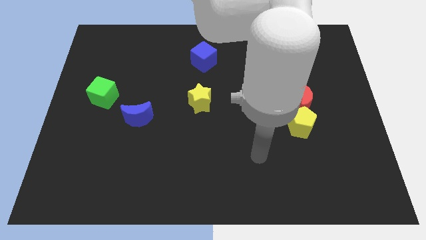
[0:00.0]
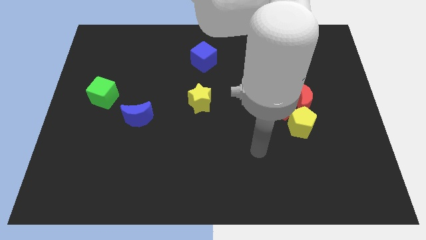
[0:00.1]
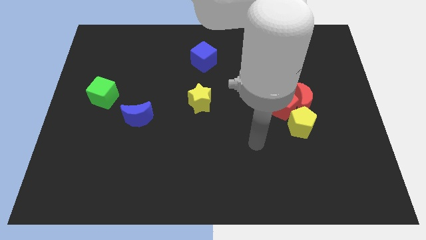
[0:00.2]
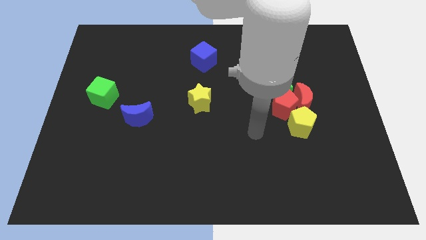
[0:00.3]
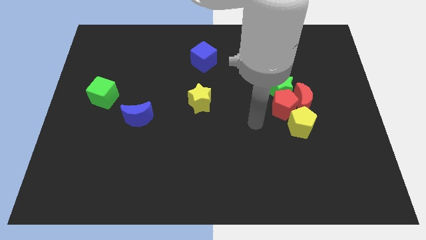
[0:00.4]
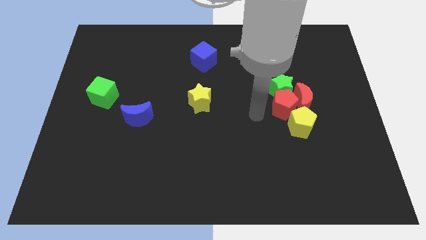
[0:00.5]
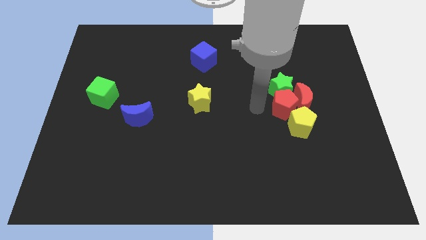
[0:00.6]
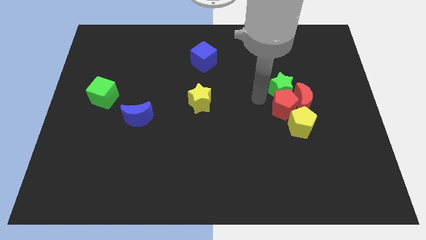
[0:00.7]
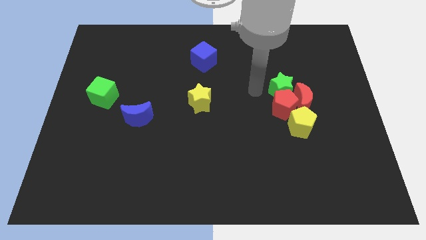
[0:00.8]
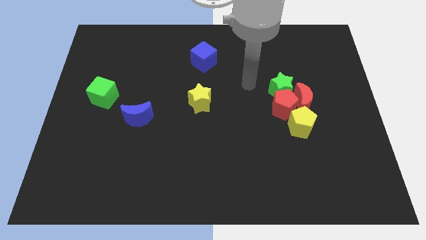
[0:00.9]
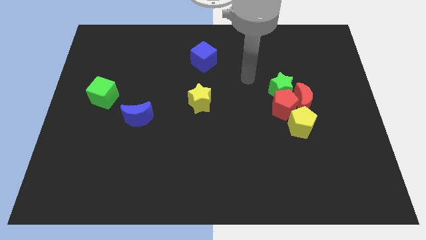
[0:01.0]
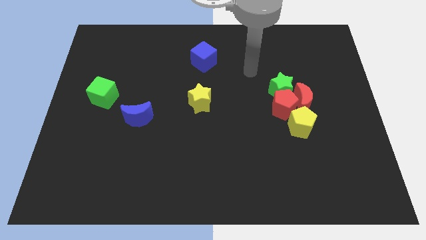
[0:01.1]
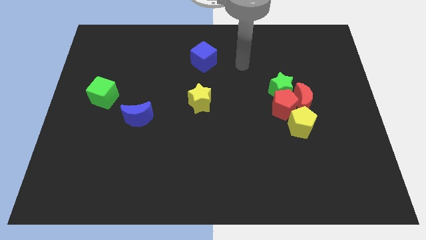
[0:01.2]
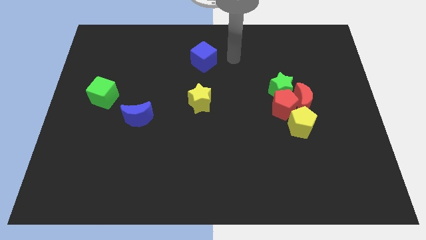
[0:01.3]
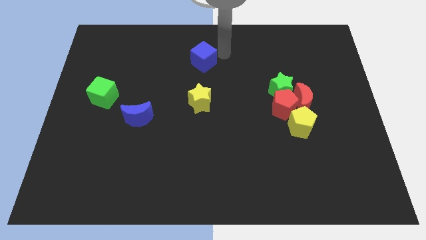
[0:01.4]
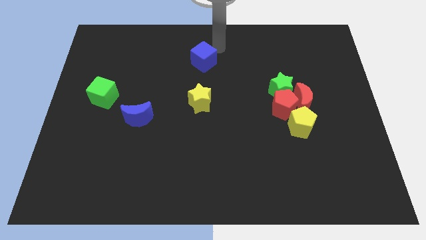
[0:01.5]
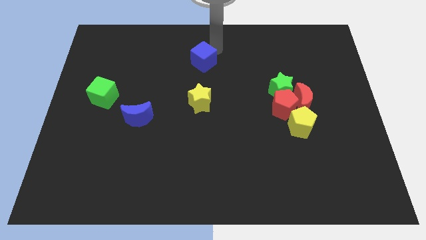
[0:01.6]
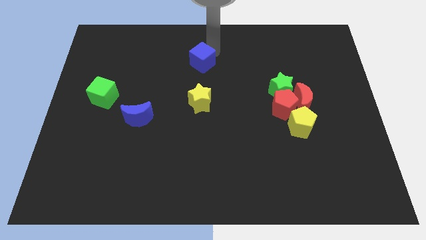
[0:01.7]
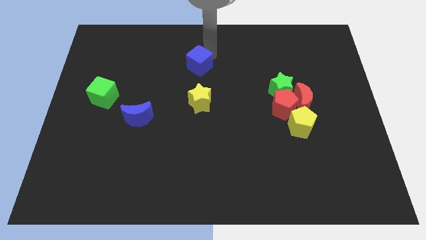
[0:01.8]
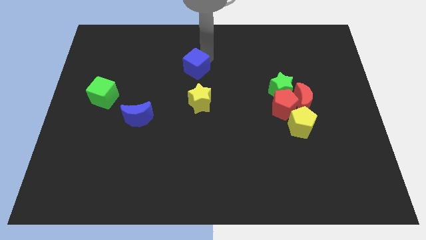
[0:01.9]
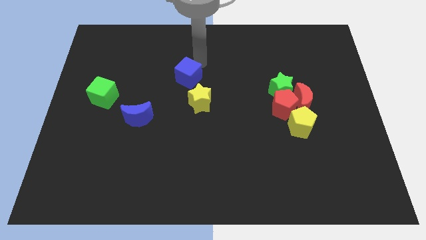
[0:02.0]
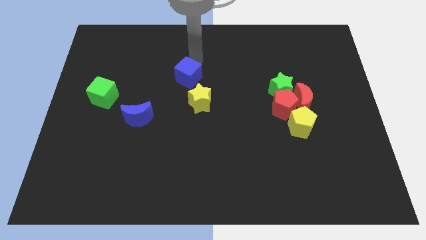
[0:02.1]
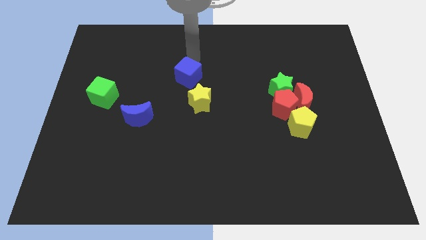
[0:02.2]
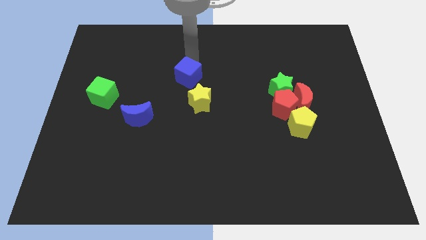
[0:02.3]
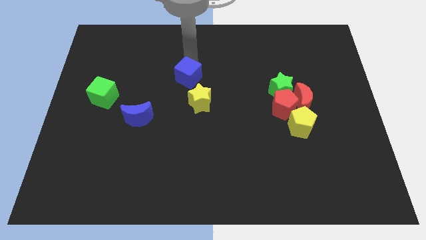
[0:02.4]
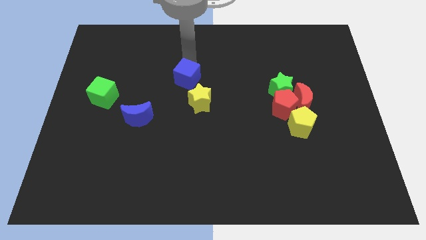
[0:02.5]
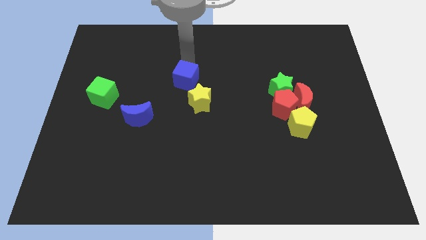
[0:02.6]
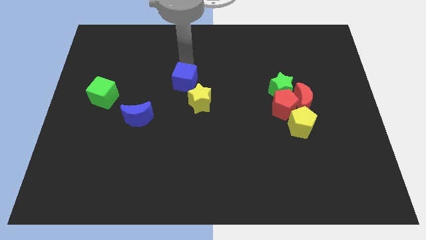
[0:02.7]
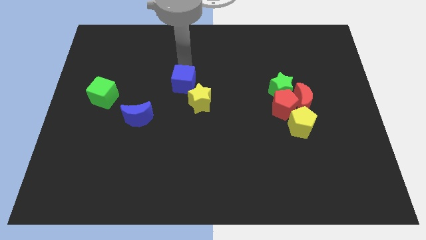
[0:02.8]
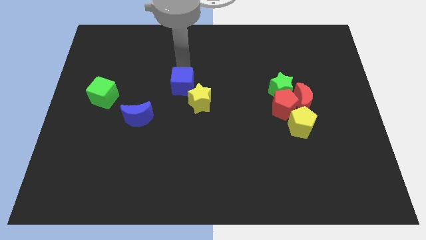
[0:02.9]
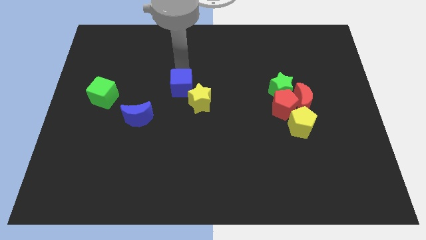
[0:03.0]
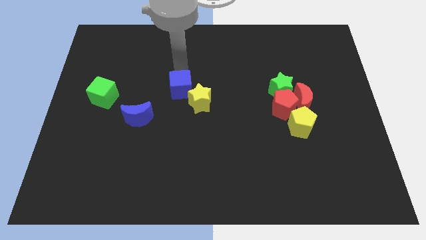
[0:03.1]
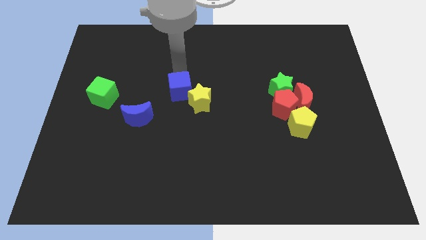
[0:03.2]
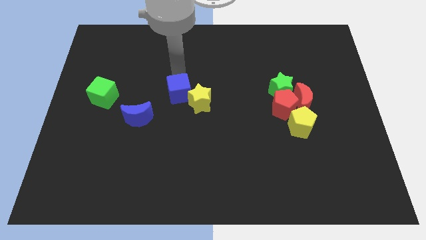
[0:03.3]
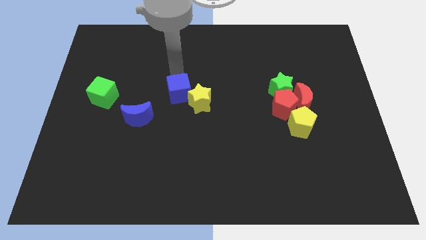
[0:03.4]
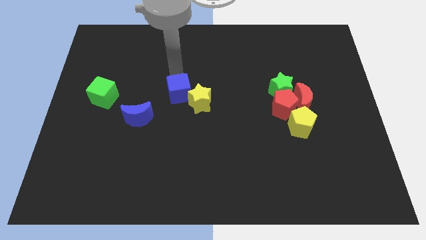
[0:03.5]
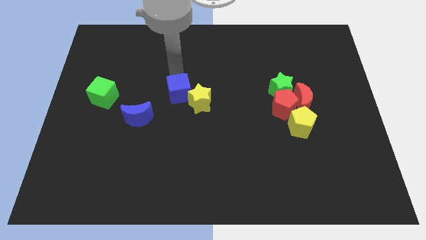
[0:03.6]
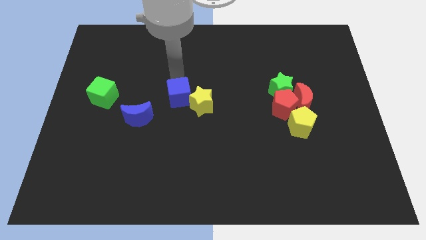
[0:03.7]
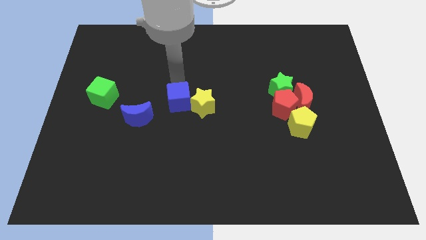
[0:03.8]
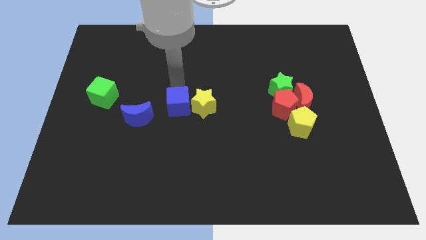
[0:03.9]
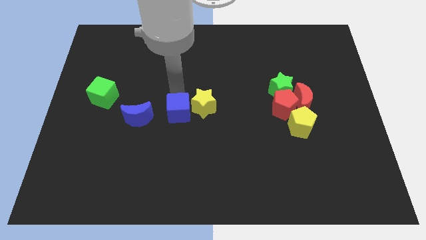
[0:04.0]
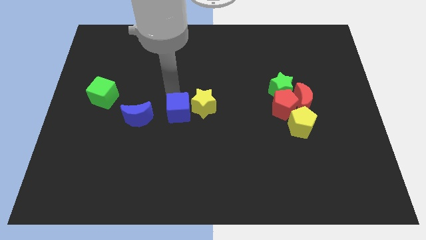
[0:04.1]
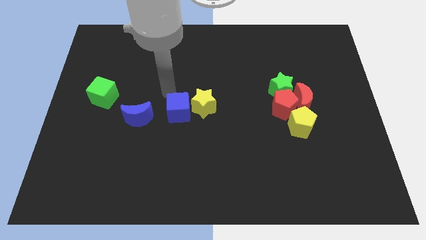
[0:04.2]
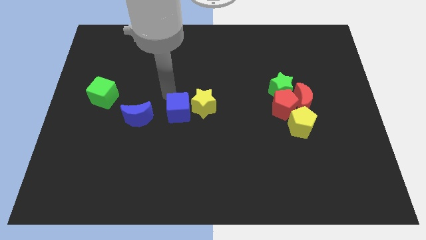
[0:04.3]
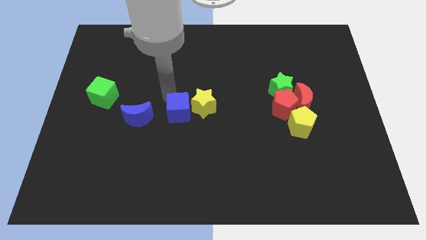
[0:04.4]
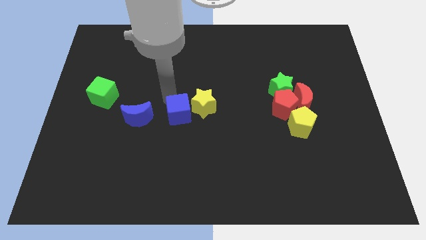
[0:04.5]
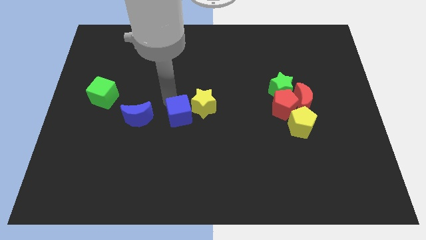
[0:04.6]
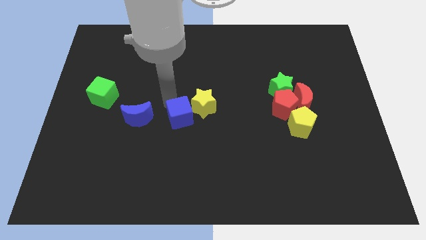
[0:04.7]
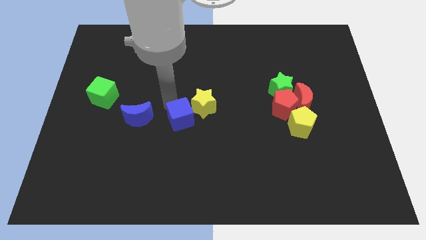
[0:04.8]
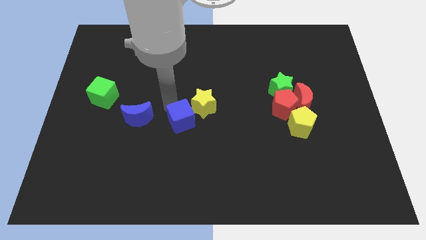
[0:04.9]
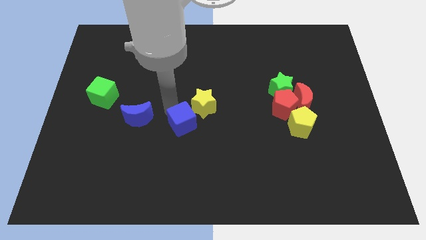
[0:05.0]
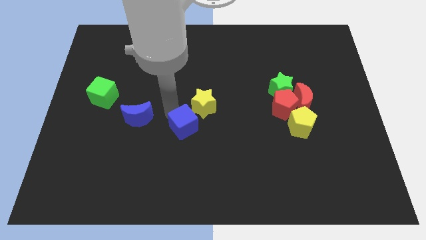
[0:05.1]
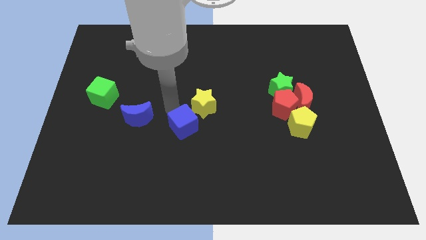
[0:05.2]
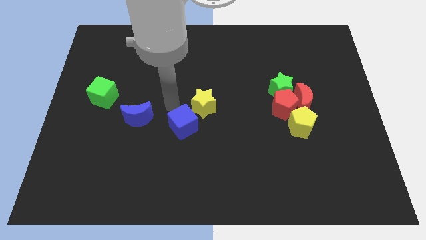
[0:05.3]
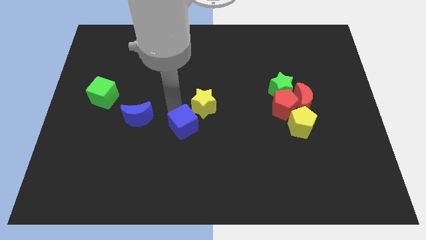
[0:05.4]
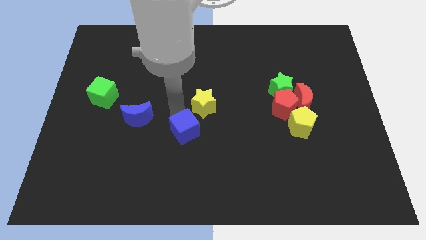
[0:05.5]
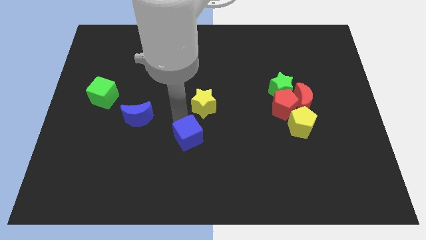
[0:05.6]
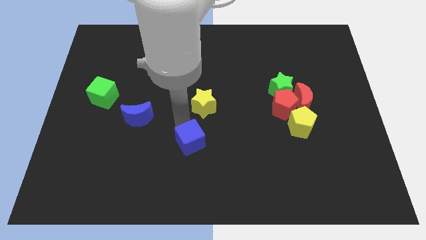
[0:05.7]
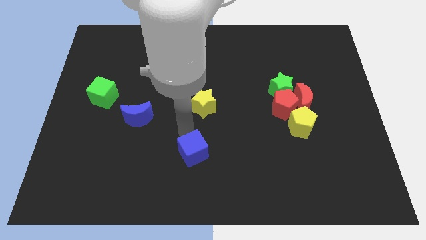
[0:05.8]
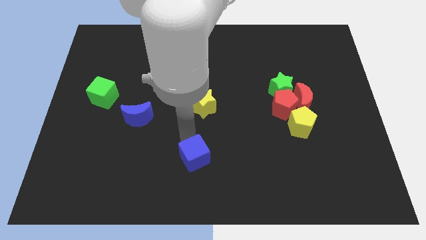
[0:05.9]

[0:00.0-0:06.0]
put the blue cube to the bottom side
